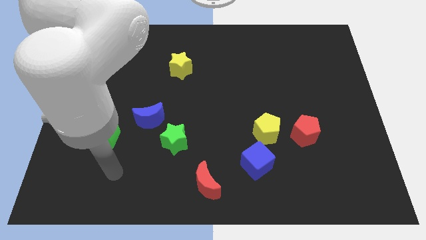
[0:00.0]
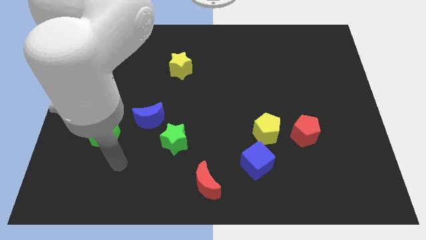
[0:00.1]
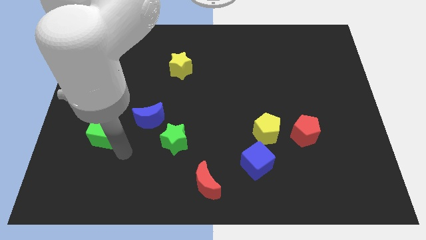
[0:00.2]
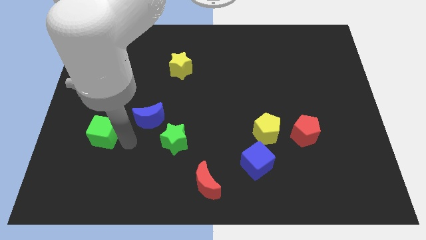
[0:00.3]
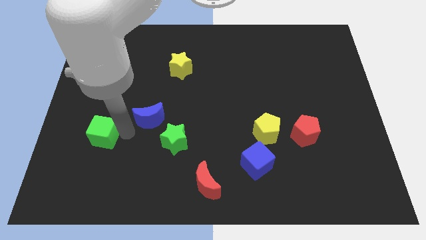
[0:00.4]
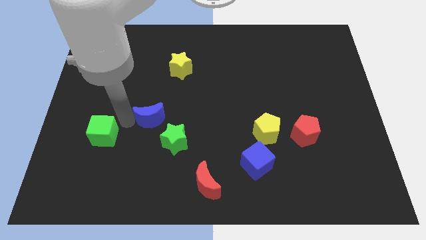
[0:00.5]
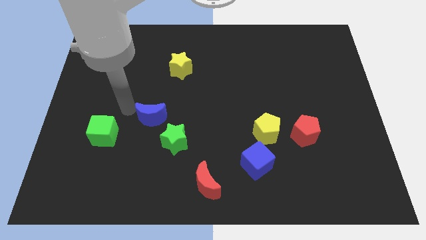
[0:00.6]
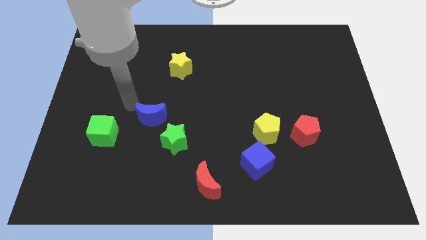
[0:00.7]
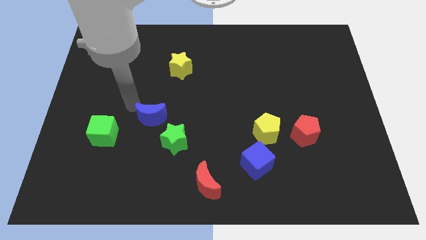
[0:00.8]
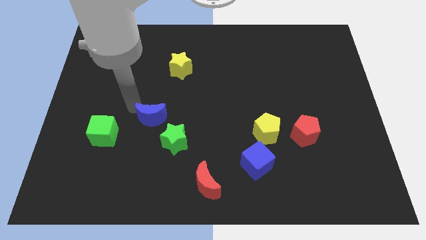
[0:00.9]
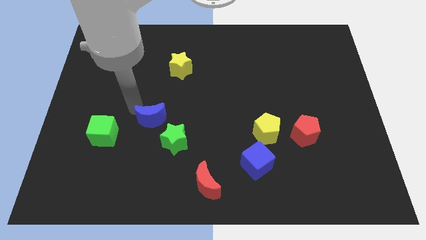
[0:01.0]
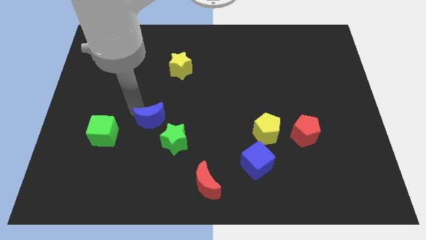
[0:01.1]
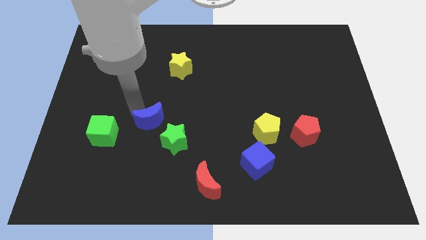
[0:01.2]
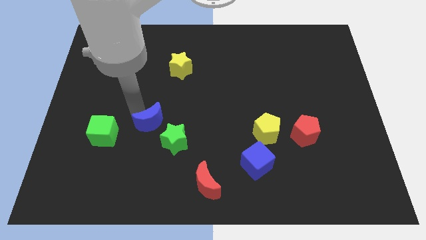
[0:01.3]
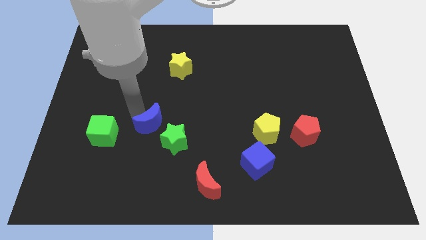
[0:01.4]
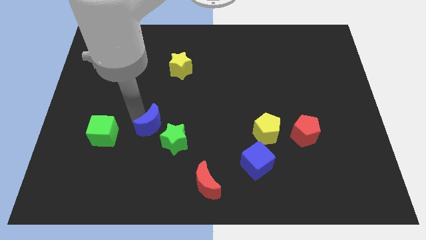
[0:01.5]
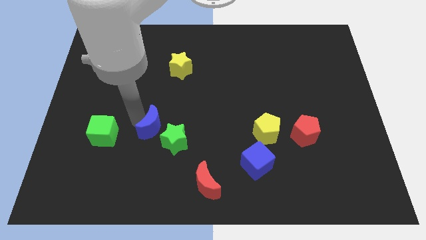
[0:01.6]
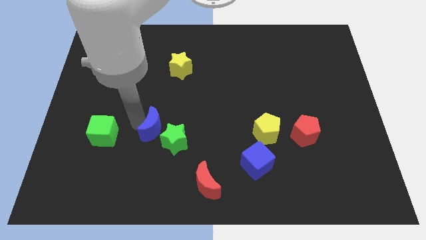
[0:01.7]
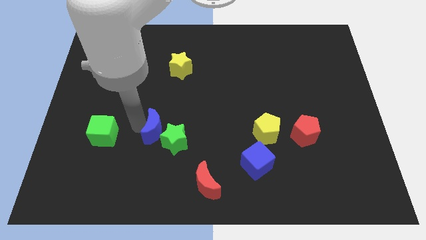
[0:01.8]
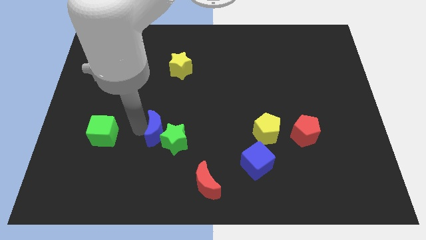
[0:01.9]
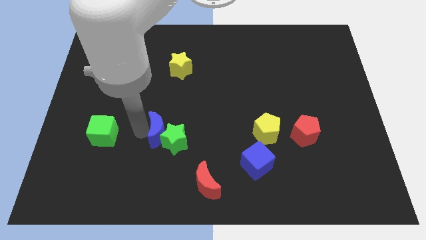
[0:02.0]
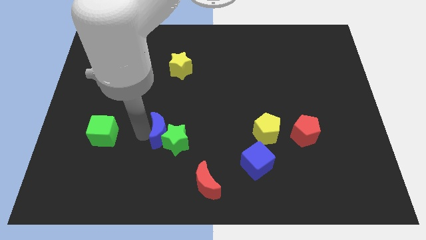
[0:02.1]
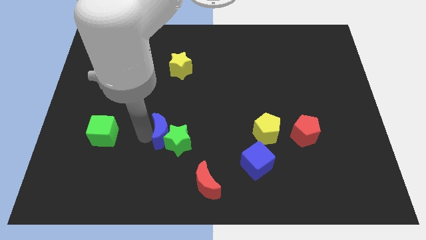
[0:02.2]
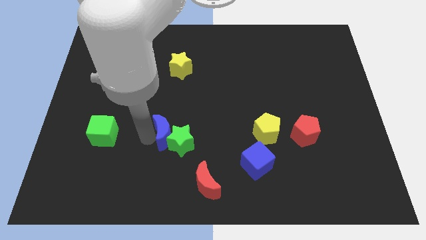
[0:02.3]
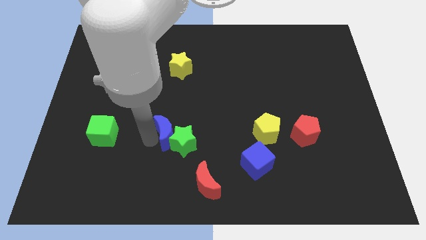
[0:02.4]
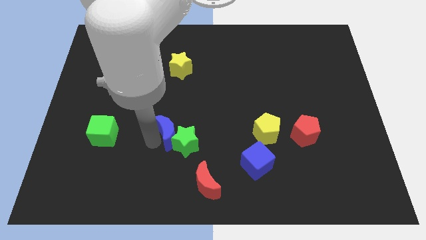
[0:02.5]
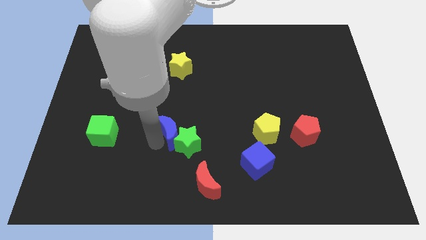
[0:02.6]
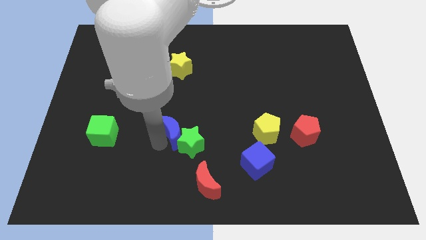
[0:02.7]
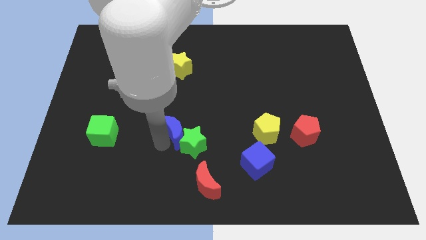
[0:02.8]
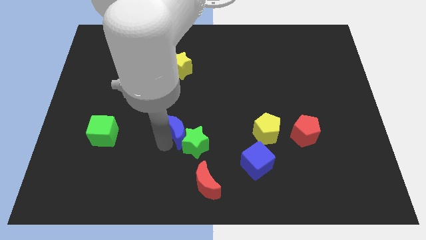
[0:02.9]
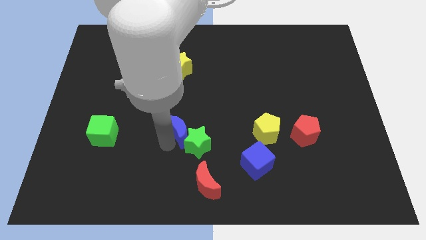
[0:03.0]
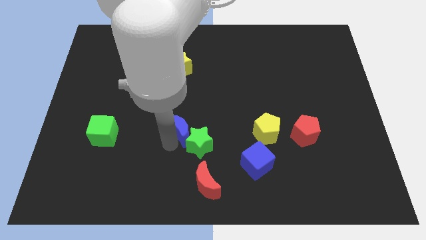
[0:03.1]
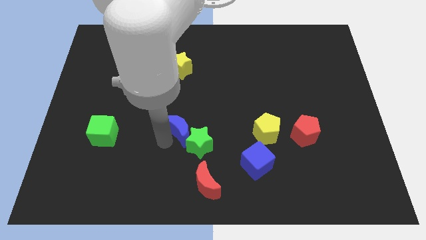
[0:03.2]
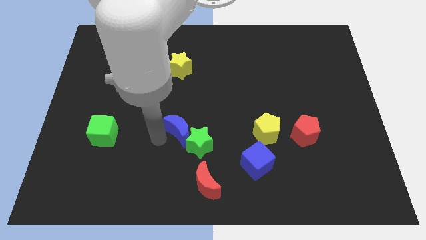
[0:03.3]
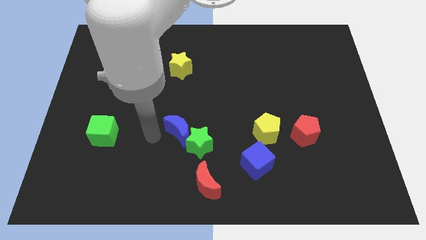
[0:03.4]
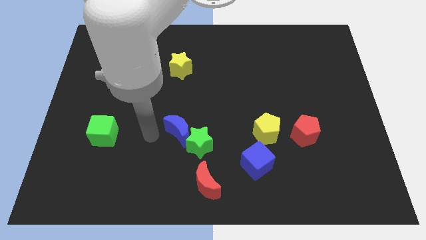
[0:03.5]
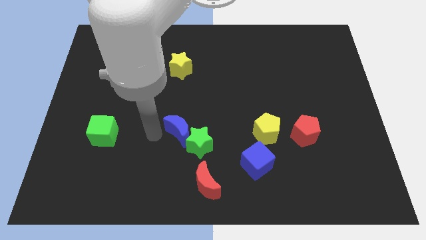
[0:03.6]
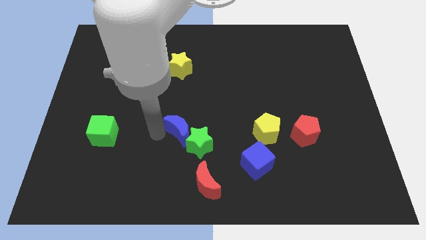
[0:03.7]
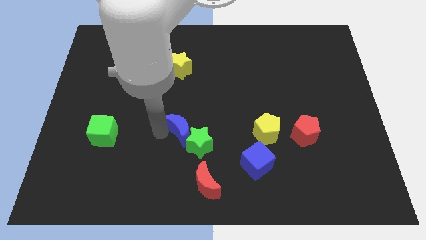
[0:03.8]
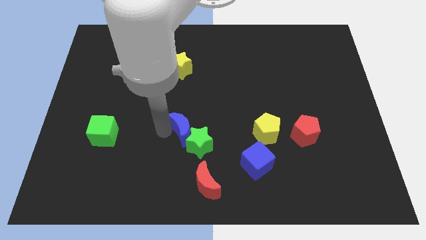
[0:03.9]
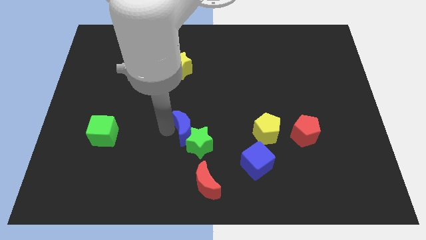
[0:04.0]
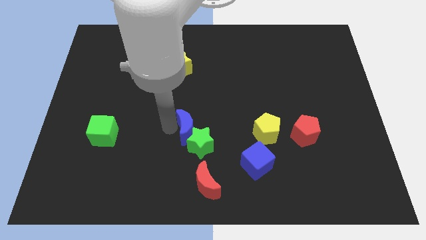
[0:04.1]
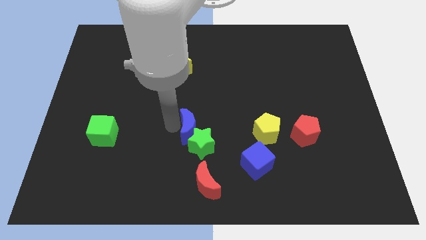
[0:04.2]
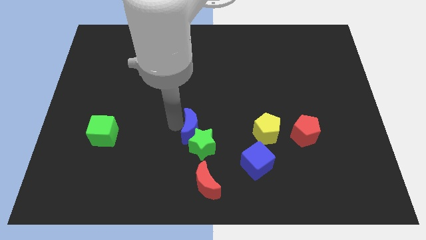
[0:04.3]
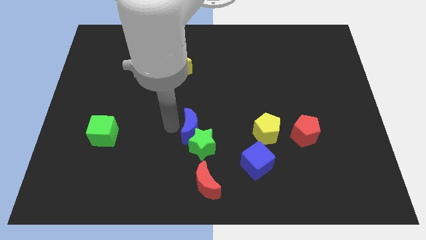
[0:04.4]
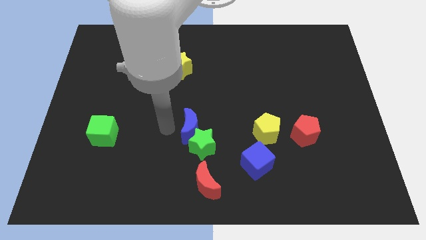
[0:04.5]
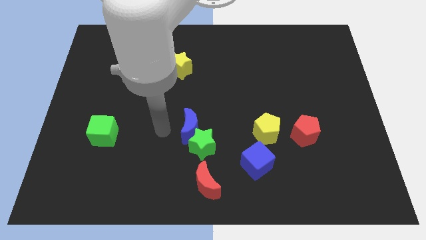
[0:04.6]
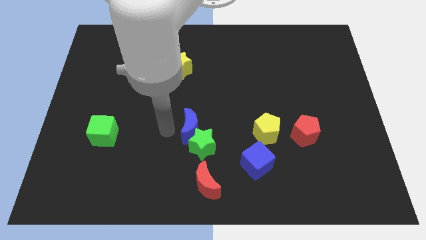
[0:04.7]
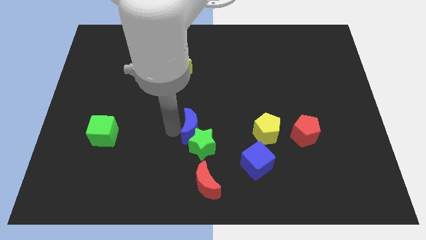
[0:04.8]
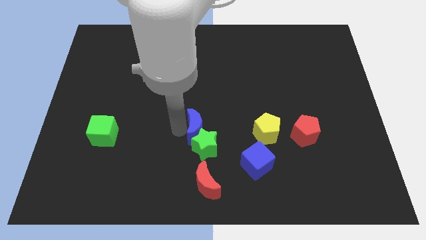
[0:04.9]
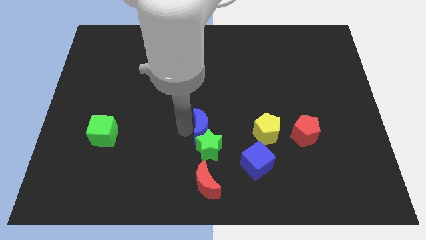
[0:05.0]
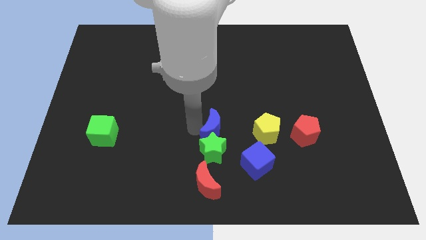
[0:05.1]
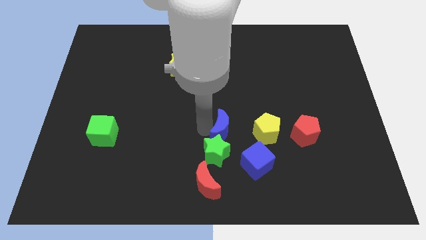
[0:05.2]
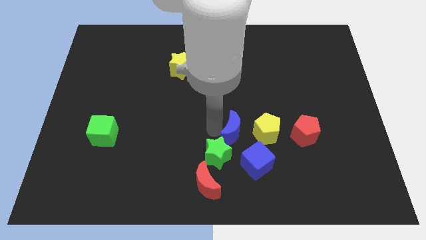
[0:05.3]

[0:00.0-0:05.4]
put the blue moon to the left of the red pentagon

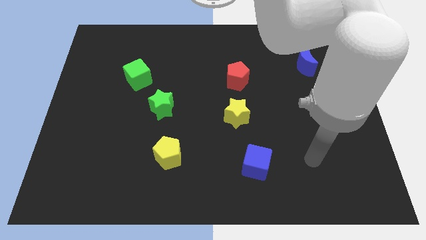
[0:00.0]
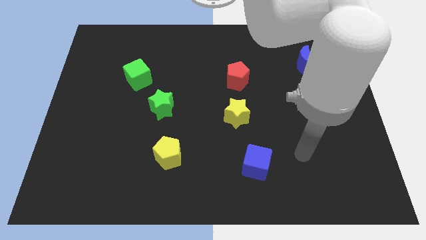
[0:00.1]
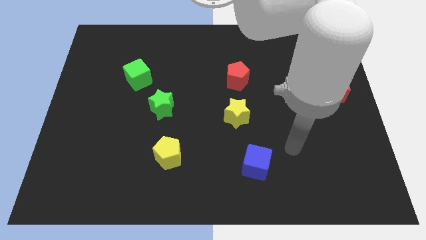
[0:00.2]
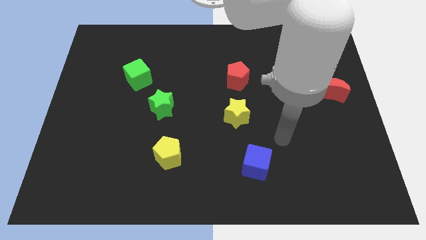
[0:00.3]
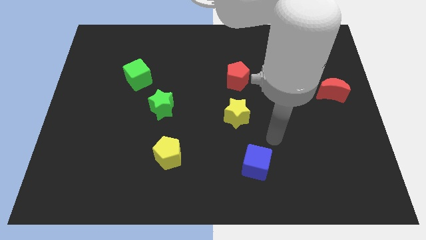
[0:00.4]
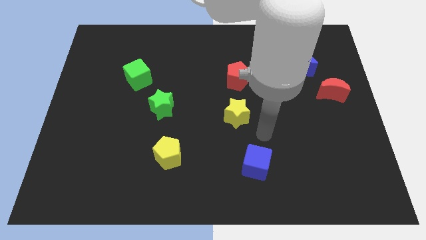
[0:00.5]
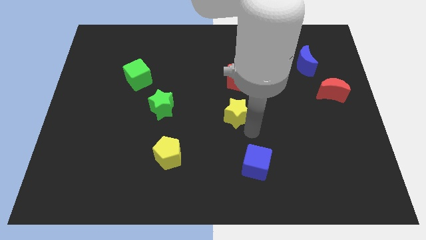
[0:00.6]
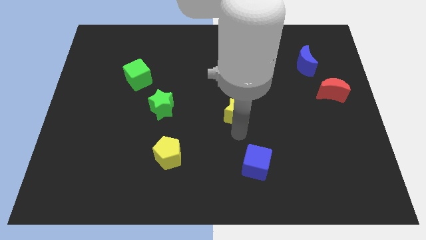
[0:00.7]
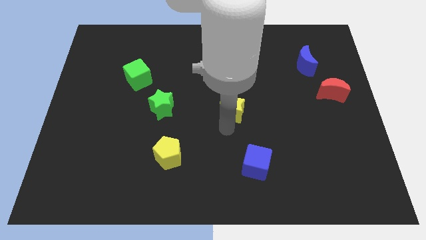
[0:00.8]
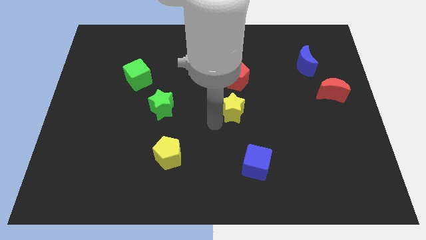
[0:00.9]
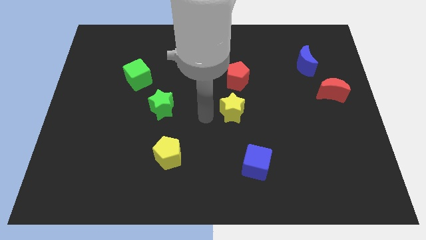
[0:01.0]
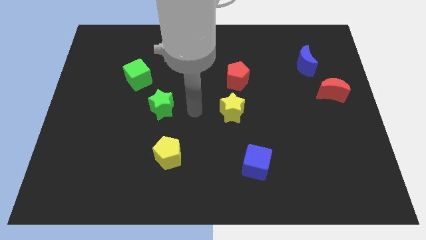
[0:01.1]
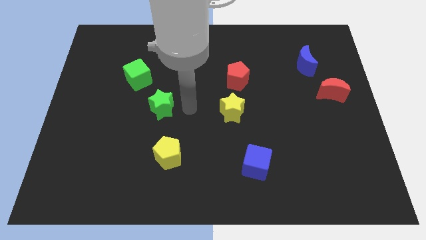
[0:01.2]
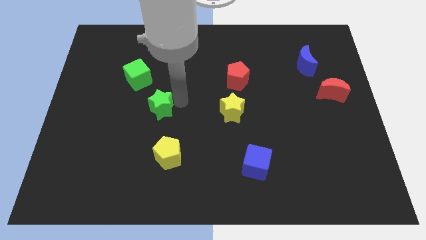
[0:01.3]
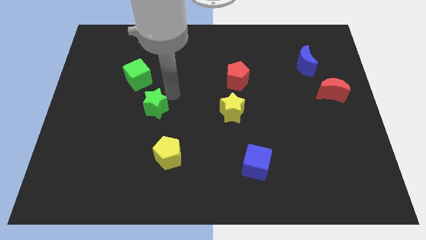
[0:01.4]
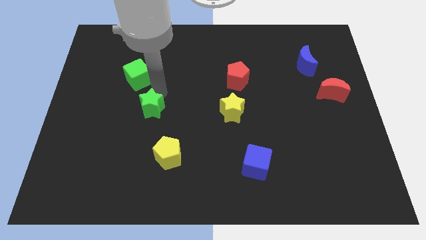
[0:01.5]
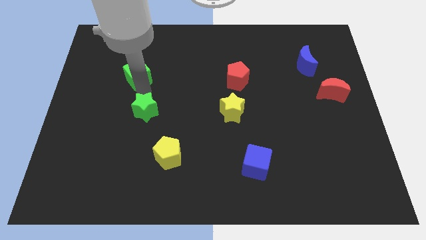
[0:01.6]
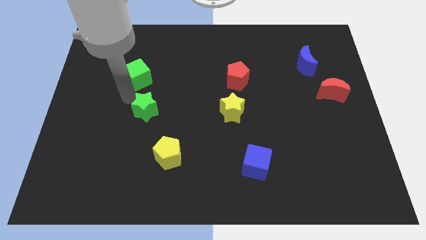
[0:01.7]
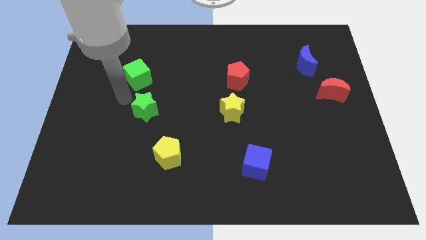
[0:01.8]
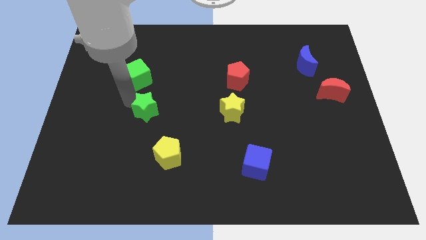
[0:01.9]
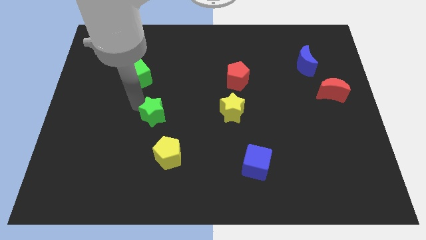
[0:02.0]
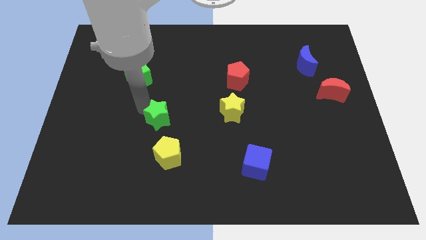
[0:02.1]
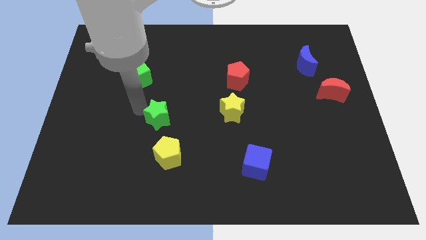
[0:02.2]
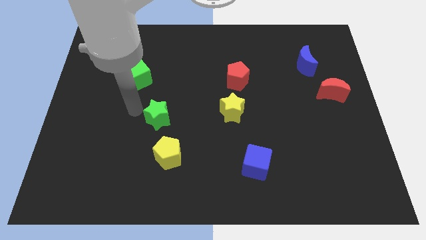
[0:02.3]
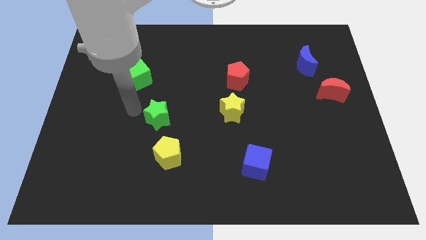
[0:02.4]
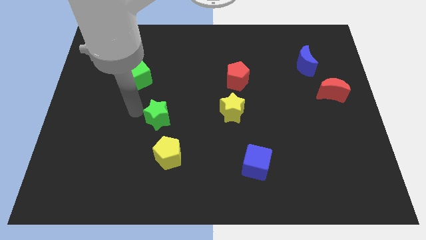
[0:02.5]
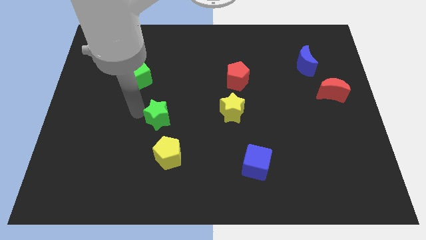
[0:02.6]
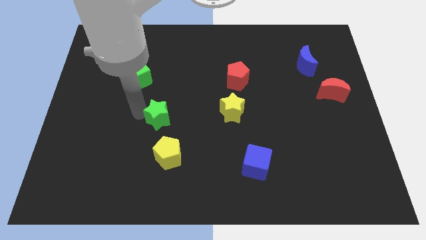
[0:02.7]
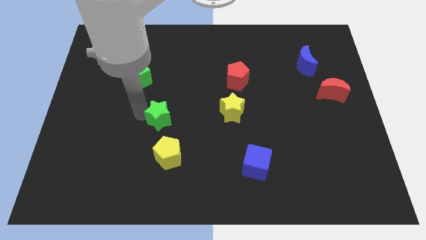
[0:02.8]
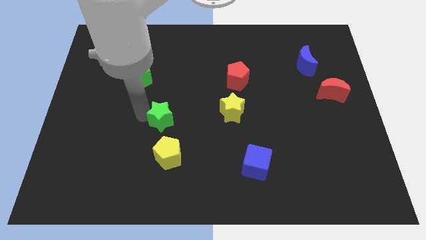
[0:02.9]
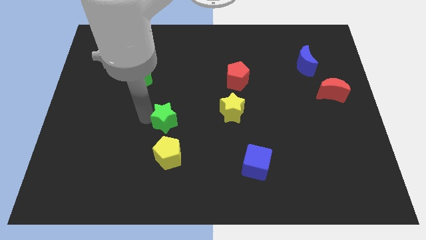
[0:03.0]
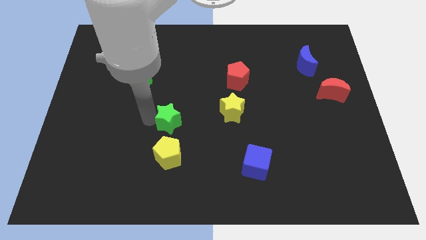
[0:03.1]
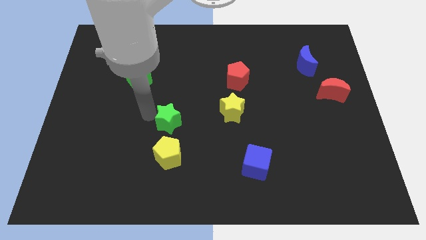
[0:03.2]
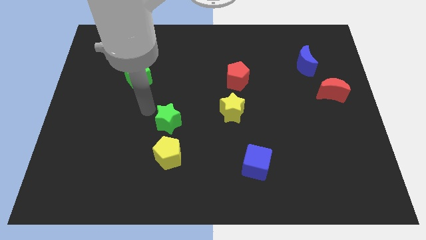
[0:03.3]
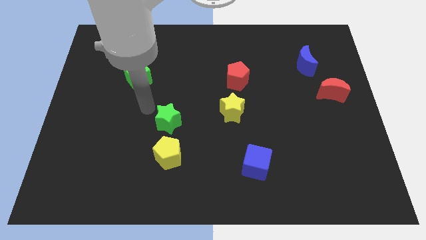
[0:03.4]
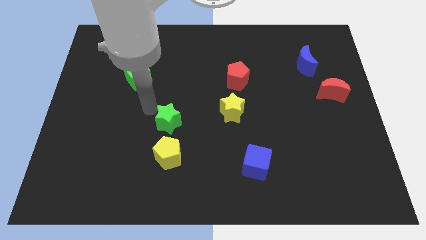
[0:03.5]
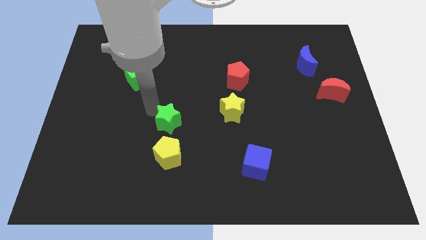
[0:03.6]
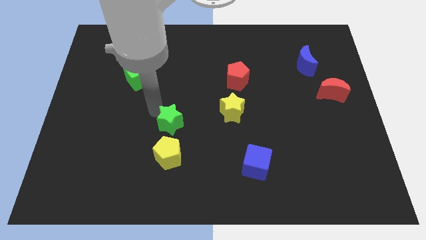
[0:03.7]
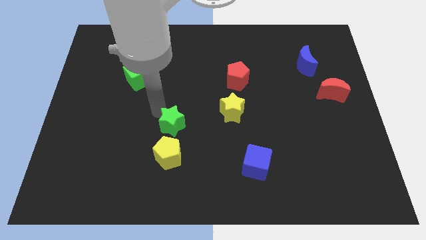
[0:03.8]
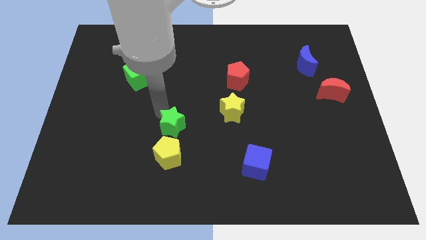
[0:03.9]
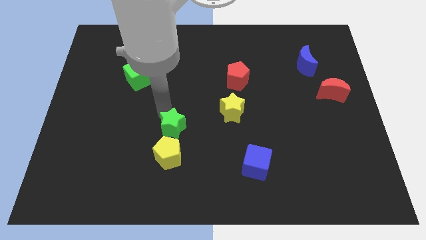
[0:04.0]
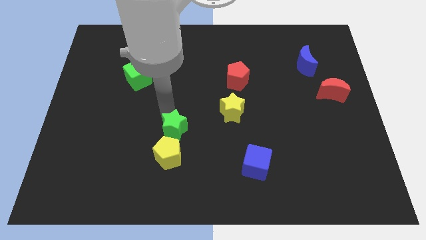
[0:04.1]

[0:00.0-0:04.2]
push the green star to the top right side of the yellow pentagon
